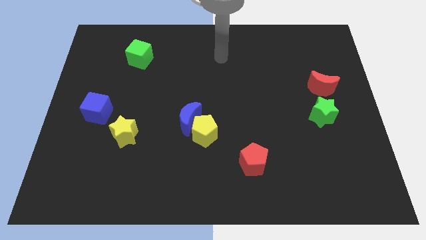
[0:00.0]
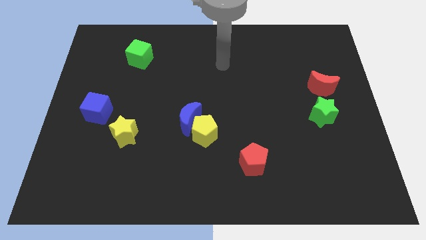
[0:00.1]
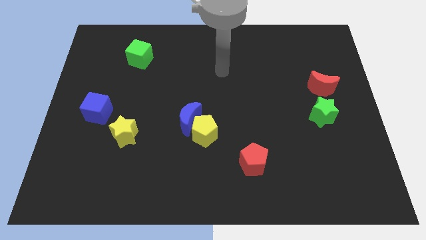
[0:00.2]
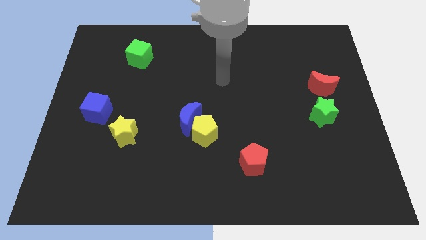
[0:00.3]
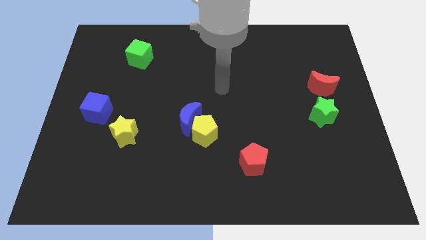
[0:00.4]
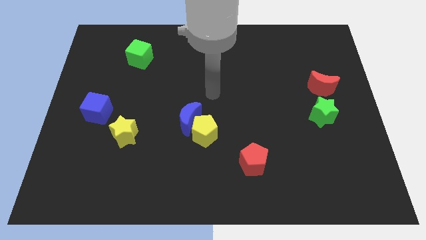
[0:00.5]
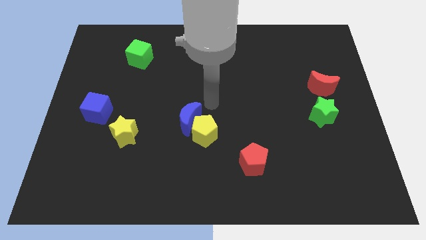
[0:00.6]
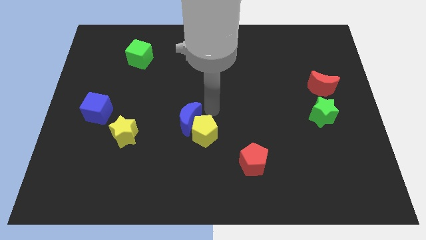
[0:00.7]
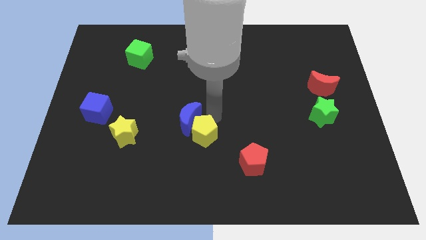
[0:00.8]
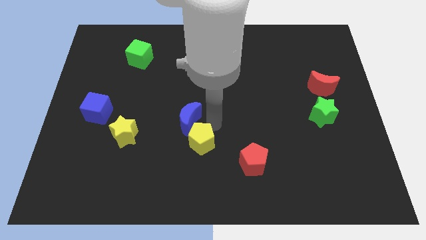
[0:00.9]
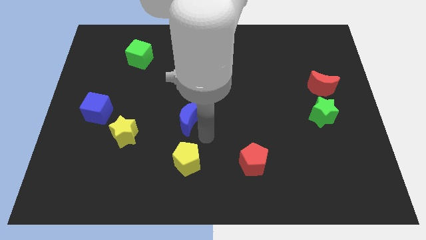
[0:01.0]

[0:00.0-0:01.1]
move the blue moon away from the yellow pentagon

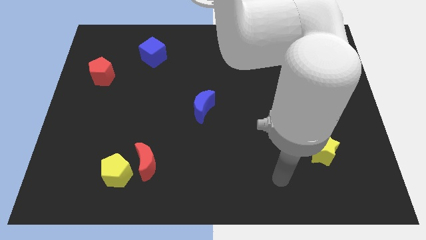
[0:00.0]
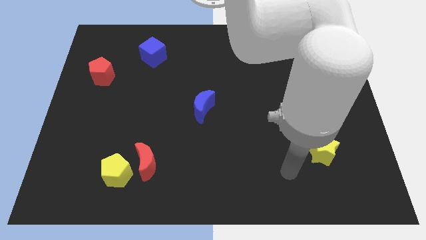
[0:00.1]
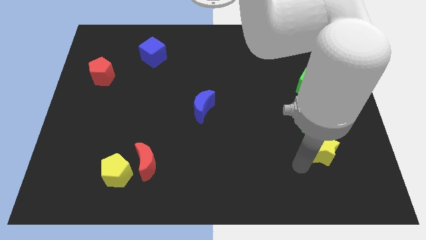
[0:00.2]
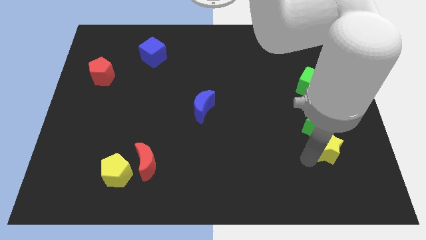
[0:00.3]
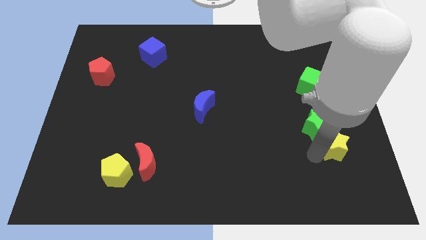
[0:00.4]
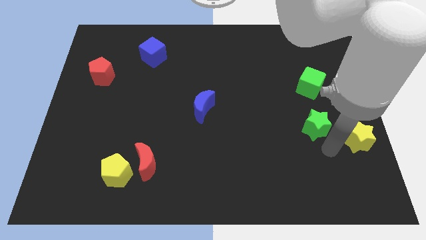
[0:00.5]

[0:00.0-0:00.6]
move the green star away from the yellow star

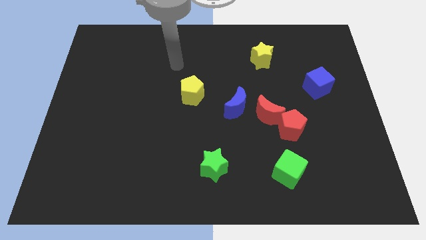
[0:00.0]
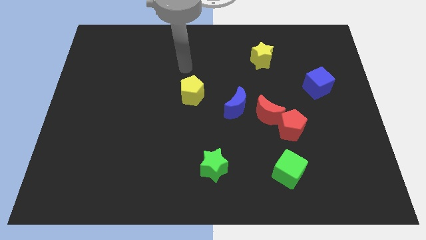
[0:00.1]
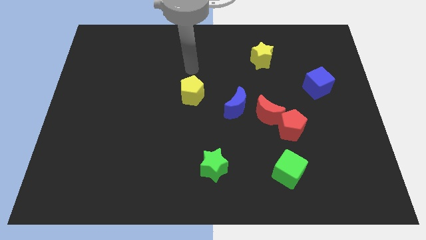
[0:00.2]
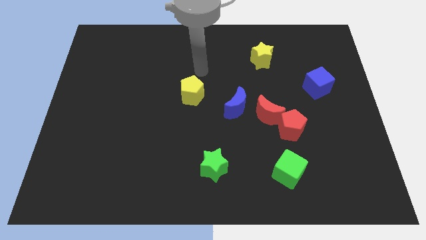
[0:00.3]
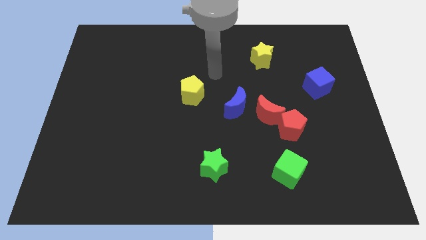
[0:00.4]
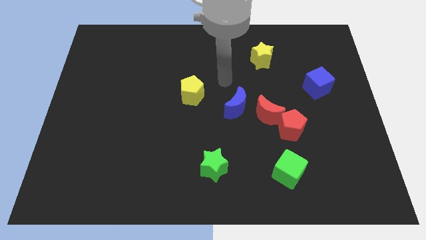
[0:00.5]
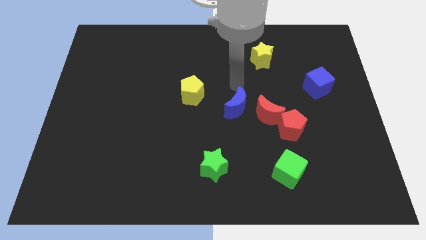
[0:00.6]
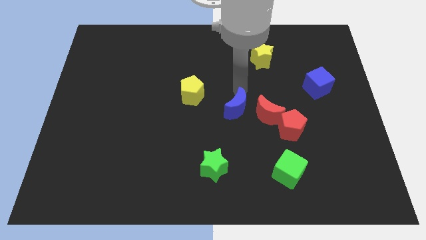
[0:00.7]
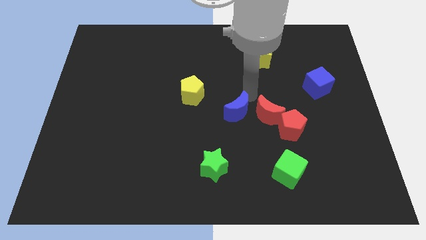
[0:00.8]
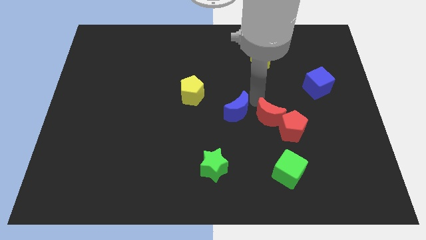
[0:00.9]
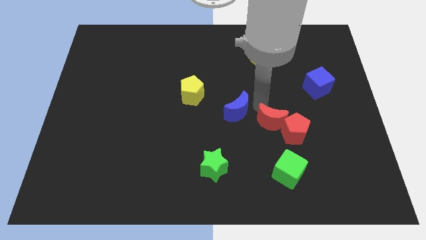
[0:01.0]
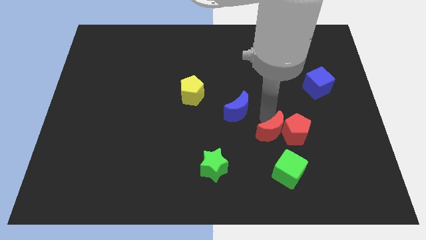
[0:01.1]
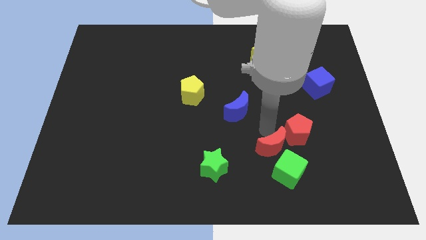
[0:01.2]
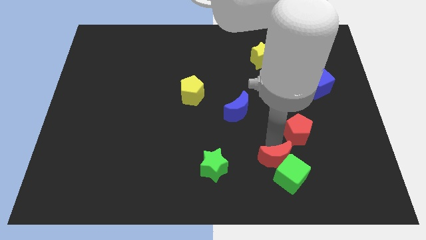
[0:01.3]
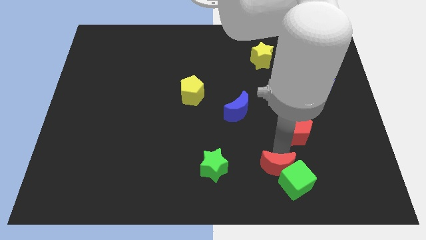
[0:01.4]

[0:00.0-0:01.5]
move the red pentagon away from the red moon

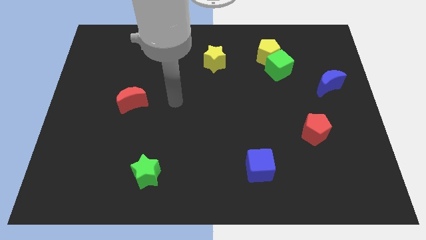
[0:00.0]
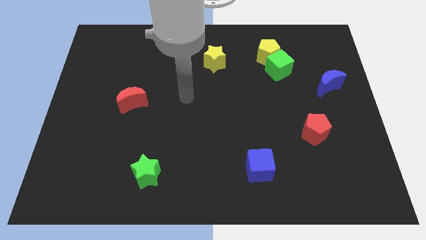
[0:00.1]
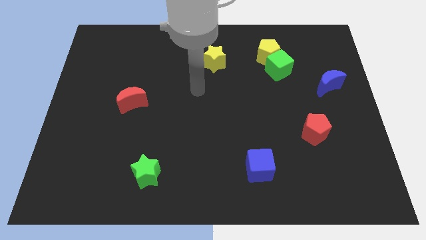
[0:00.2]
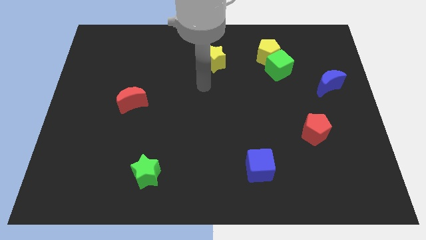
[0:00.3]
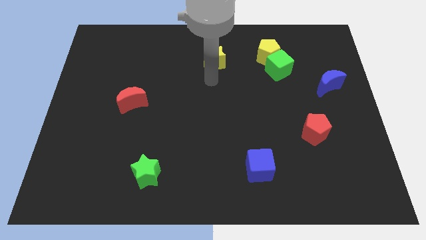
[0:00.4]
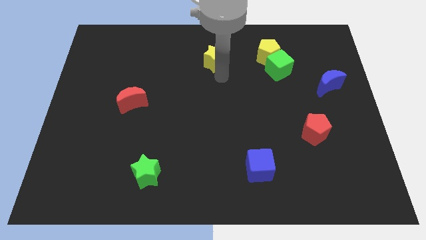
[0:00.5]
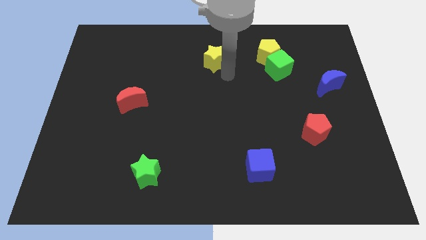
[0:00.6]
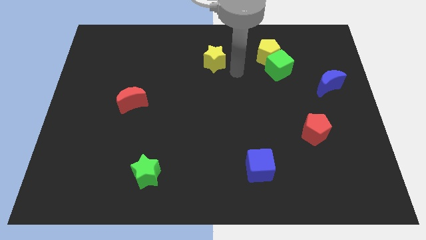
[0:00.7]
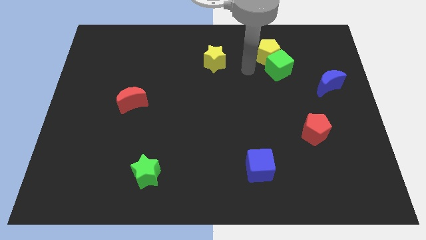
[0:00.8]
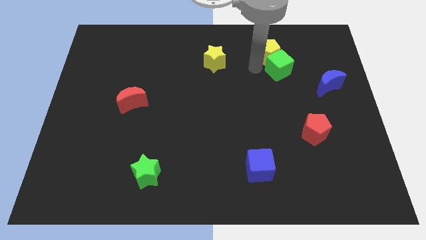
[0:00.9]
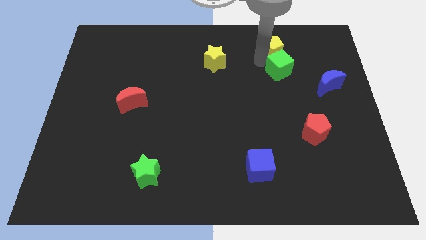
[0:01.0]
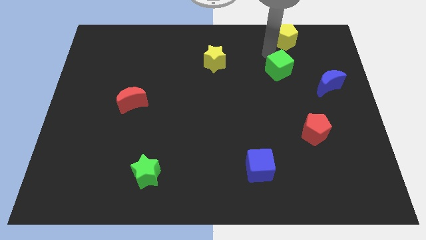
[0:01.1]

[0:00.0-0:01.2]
move the green cube away from the yellow pentagon

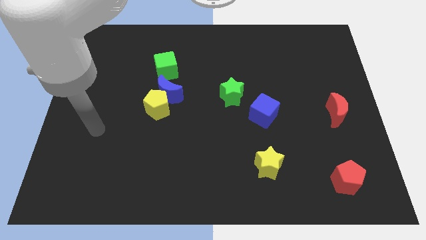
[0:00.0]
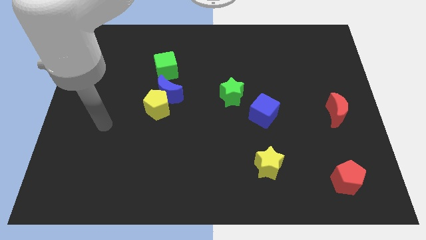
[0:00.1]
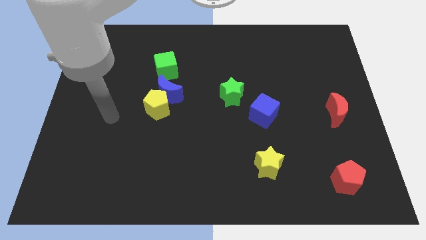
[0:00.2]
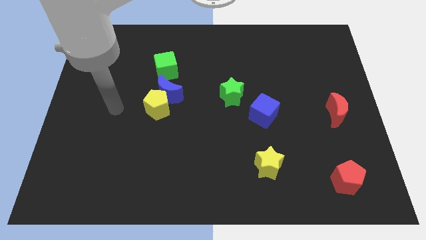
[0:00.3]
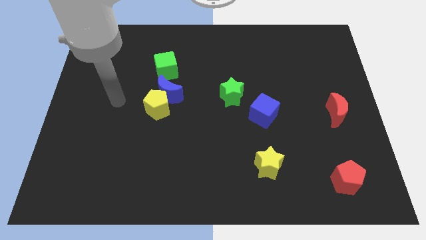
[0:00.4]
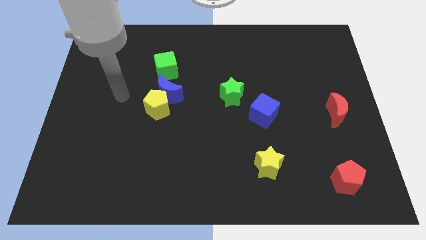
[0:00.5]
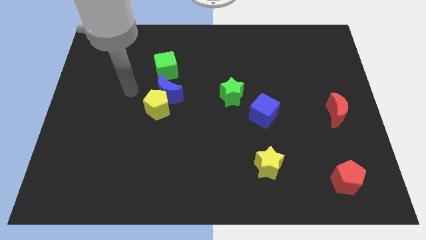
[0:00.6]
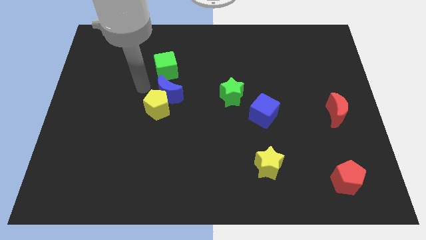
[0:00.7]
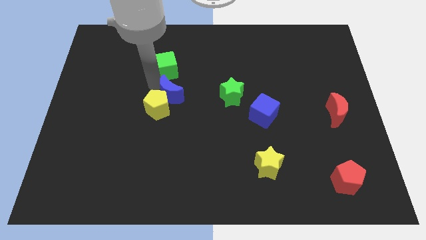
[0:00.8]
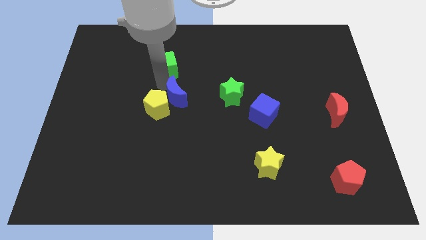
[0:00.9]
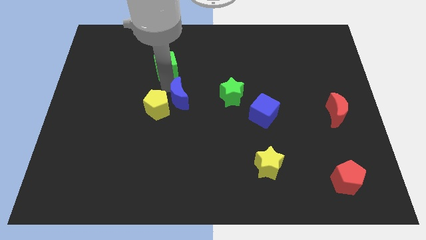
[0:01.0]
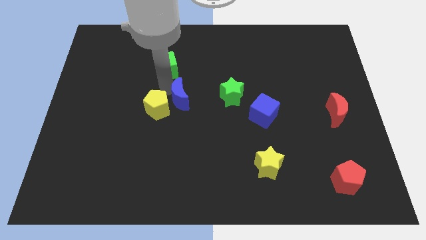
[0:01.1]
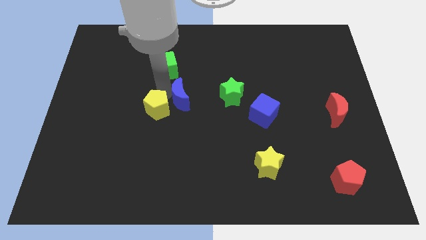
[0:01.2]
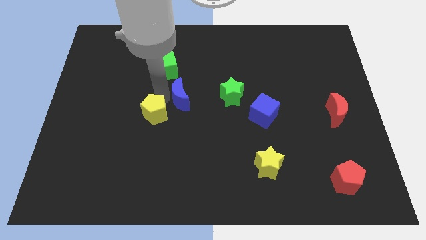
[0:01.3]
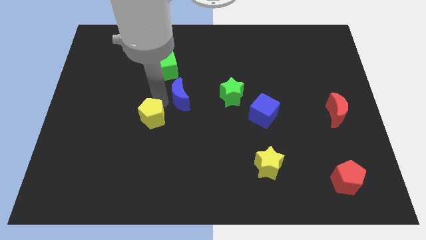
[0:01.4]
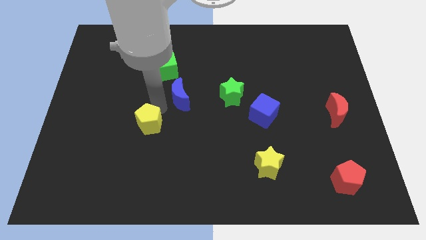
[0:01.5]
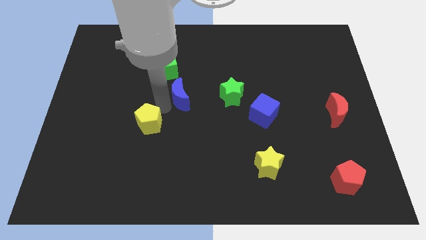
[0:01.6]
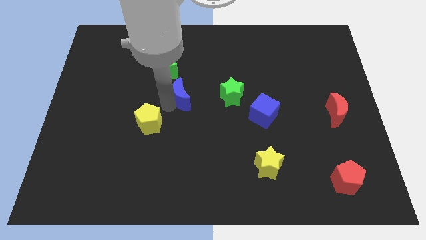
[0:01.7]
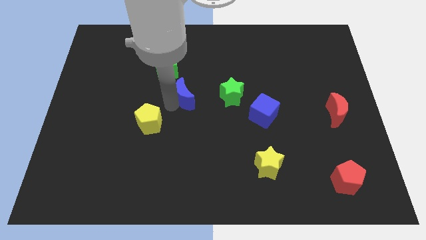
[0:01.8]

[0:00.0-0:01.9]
separate the yellow pentagon from the blue moon

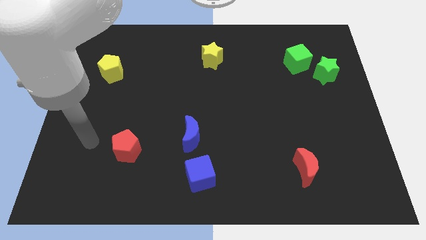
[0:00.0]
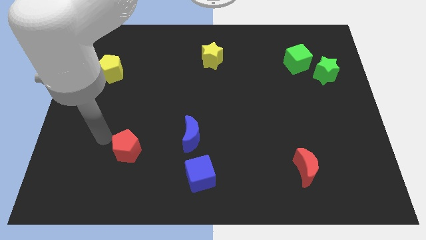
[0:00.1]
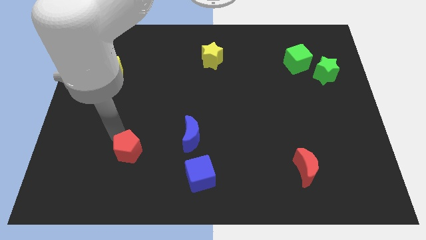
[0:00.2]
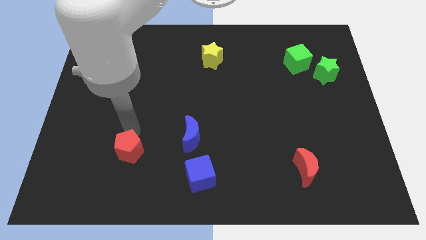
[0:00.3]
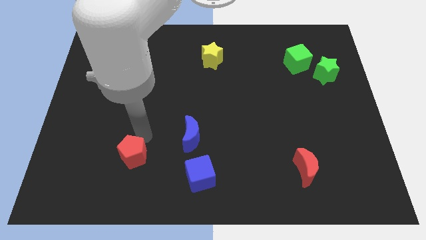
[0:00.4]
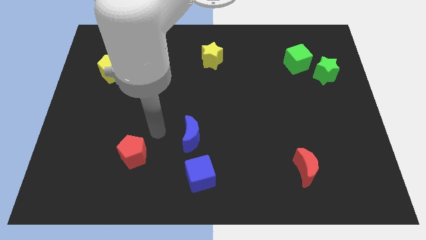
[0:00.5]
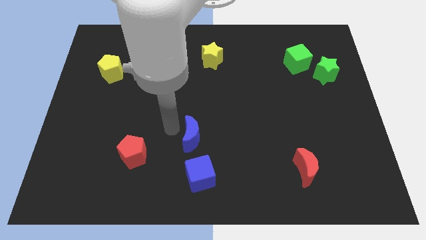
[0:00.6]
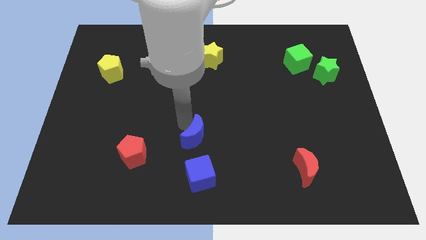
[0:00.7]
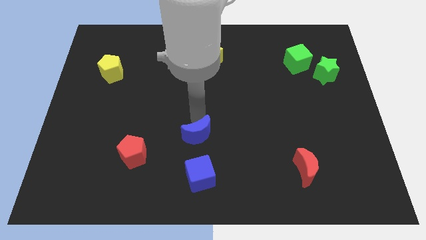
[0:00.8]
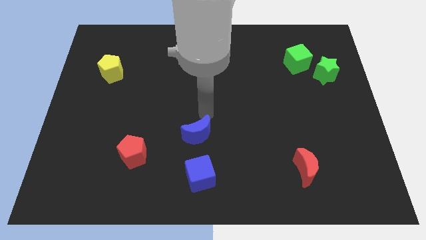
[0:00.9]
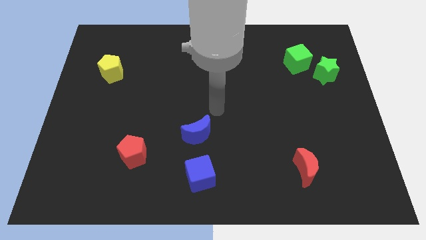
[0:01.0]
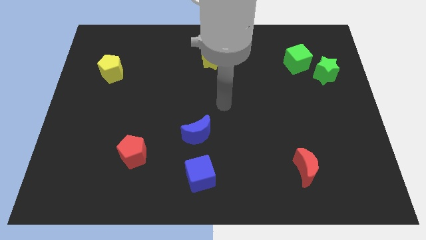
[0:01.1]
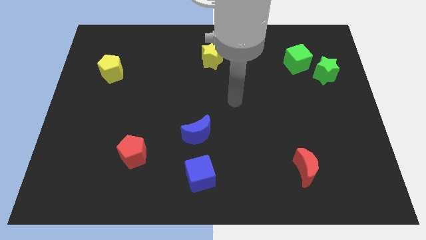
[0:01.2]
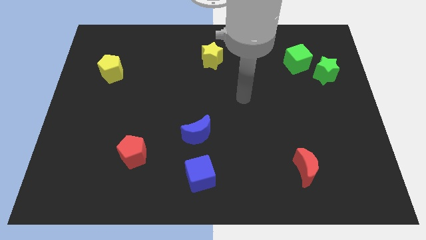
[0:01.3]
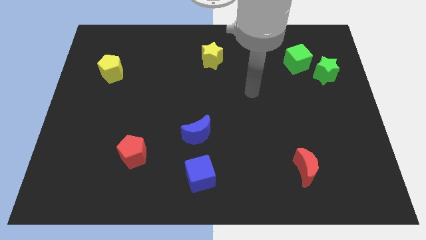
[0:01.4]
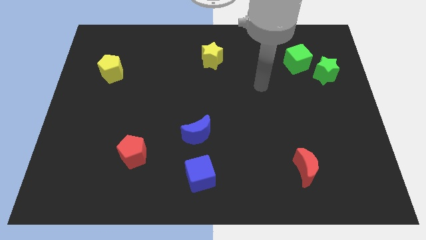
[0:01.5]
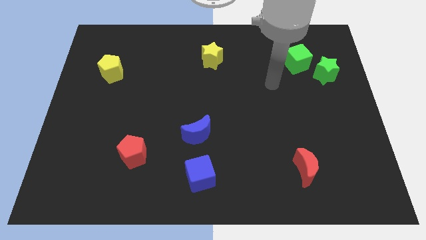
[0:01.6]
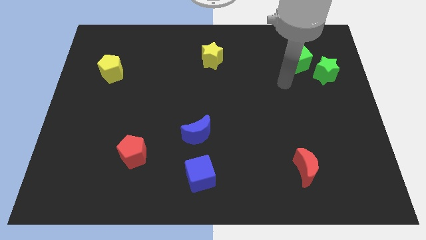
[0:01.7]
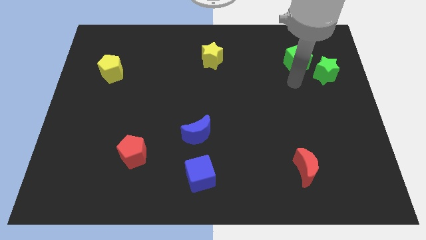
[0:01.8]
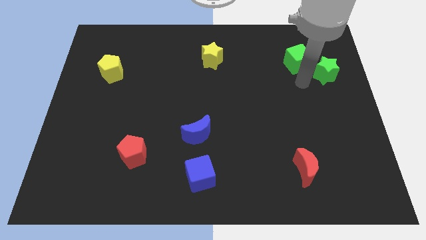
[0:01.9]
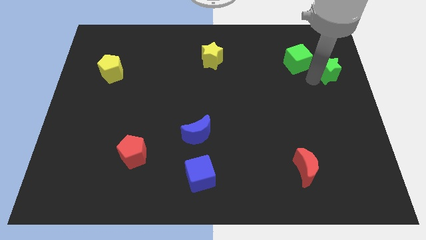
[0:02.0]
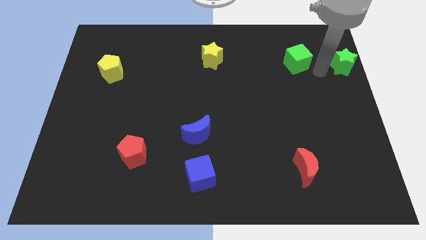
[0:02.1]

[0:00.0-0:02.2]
separate the green cube from the green star

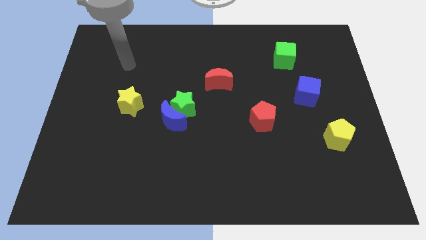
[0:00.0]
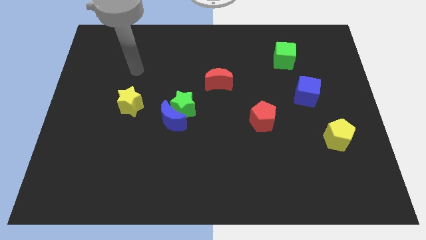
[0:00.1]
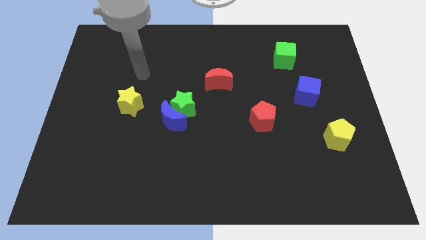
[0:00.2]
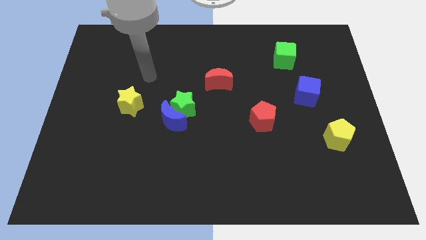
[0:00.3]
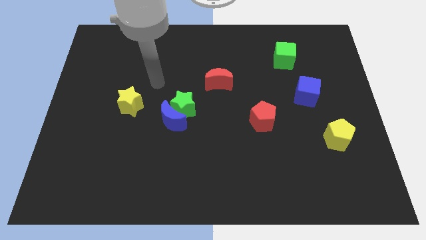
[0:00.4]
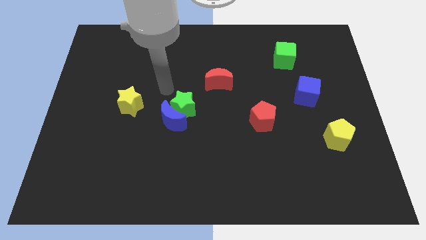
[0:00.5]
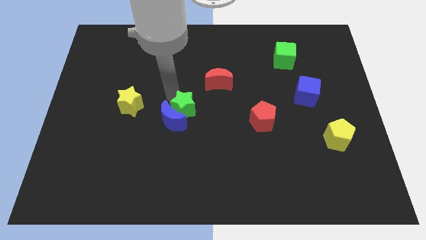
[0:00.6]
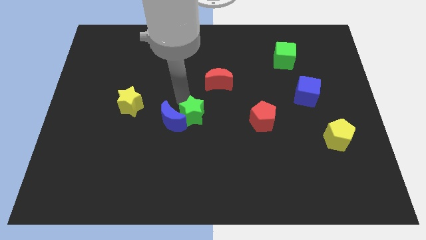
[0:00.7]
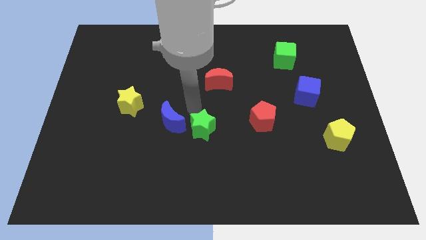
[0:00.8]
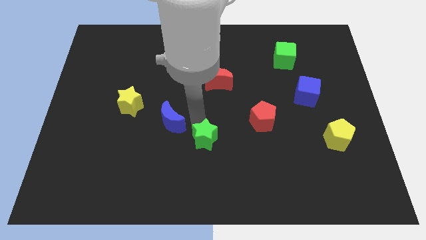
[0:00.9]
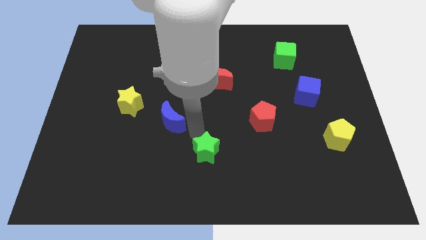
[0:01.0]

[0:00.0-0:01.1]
move the blue moon away from the green star
